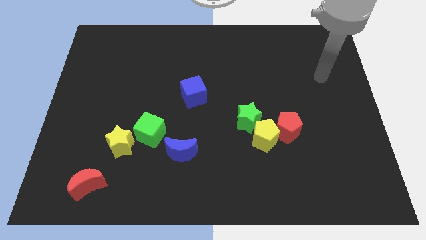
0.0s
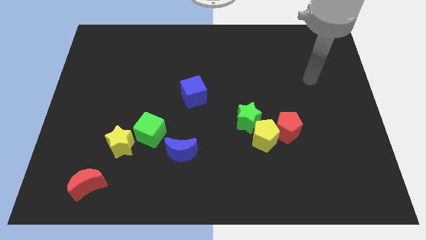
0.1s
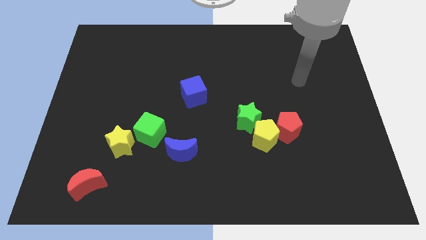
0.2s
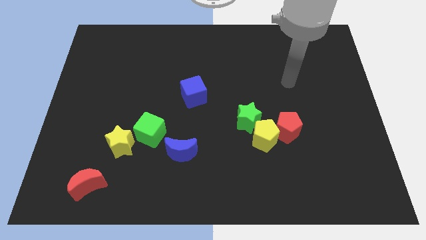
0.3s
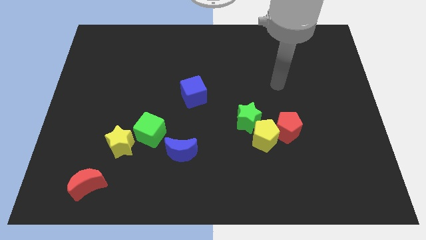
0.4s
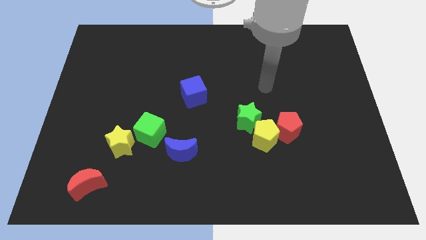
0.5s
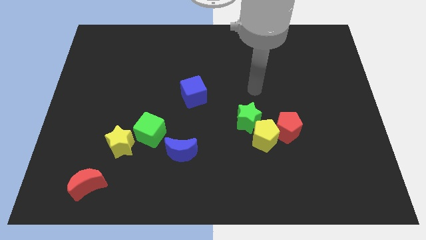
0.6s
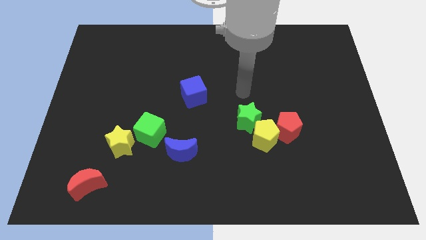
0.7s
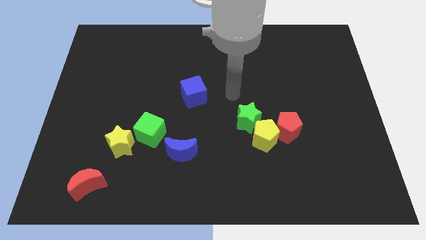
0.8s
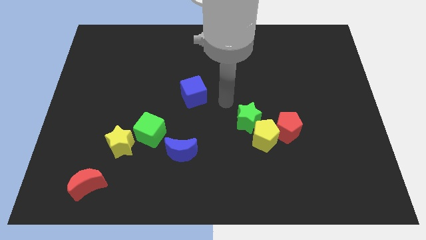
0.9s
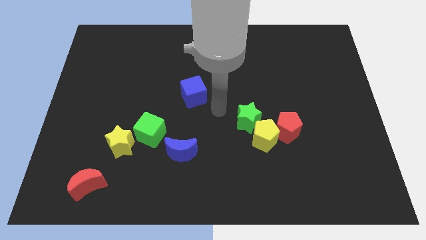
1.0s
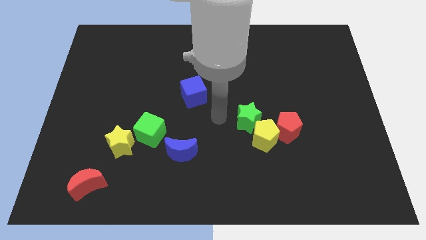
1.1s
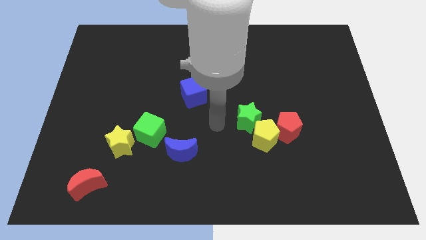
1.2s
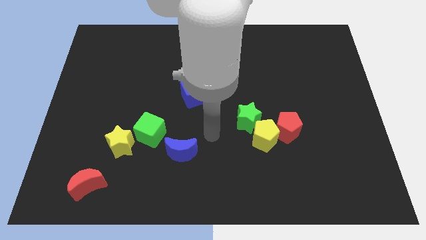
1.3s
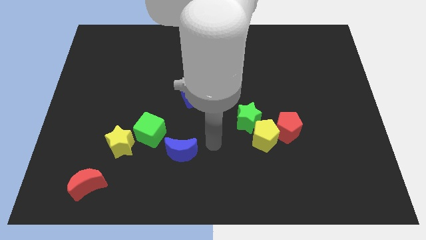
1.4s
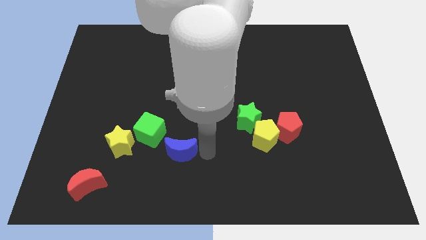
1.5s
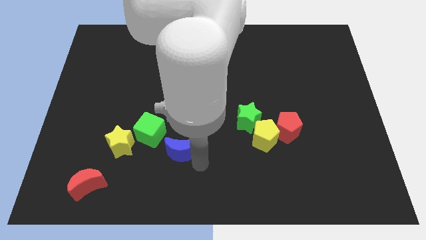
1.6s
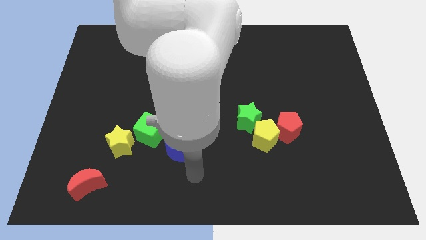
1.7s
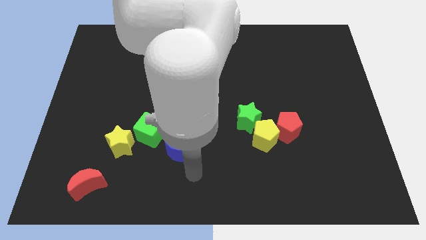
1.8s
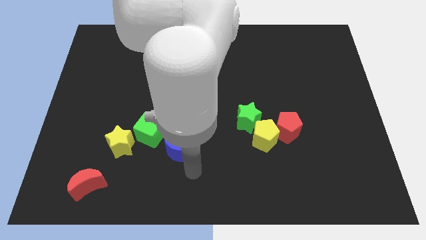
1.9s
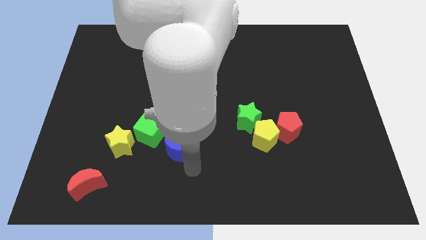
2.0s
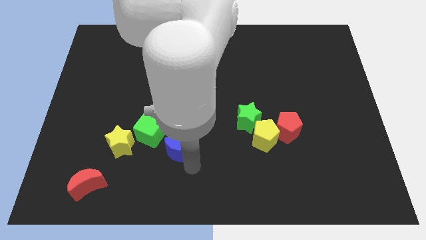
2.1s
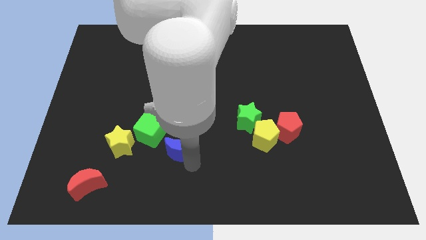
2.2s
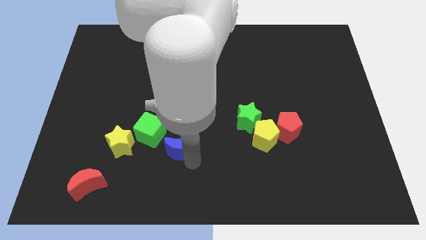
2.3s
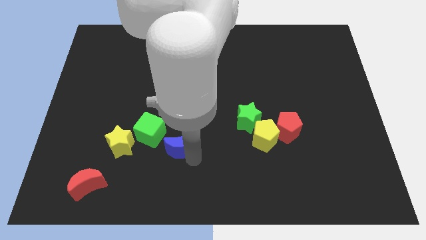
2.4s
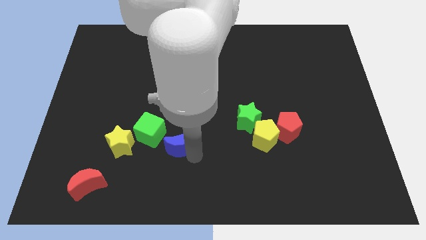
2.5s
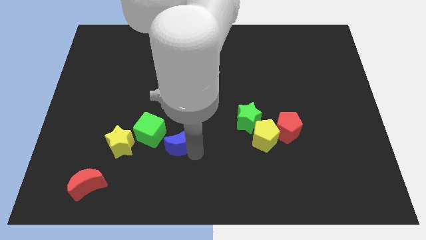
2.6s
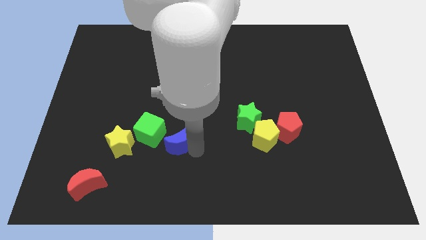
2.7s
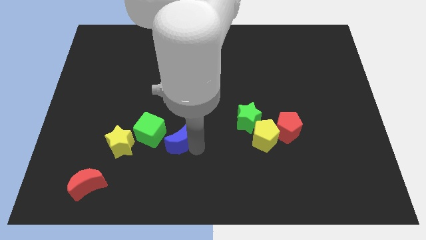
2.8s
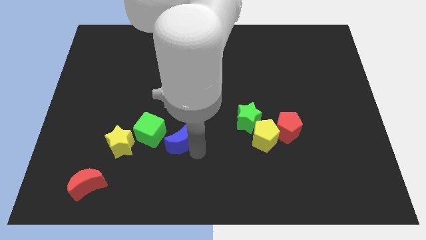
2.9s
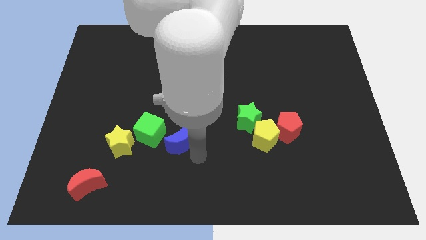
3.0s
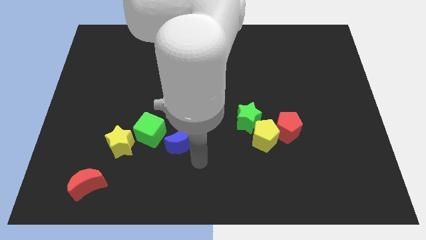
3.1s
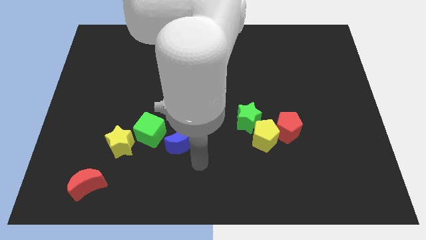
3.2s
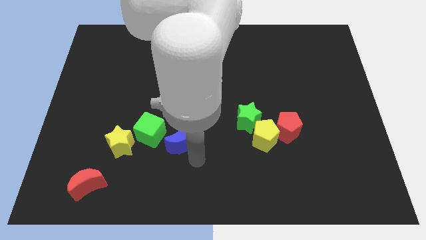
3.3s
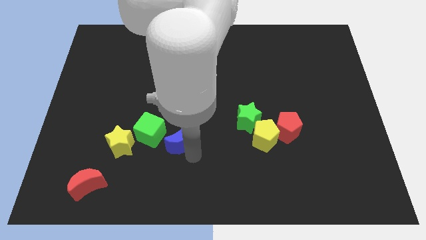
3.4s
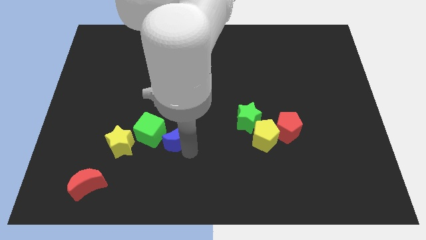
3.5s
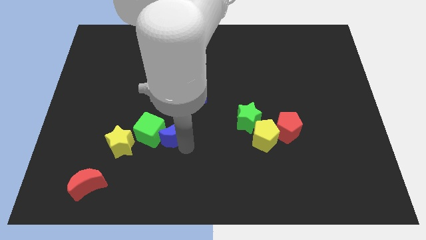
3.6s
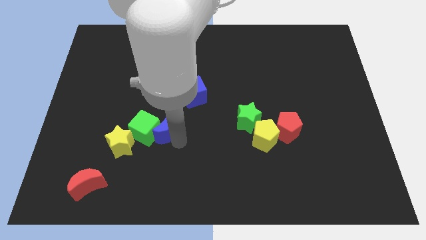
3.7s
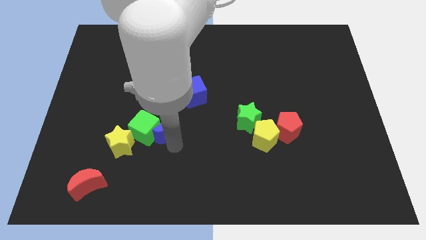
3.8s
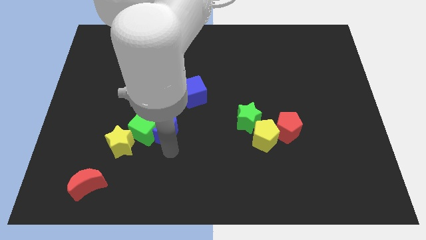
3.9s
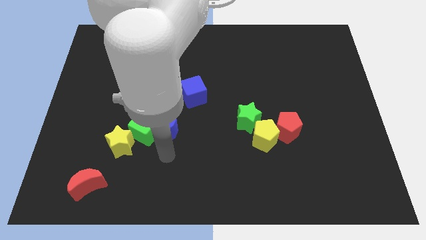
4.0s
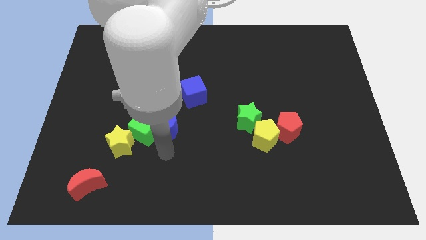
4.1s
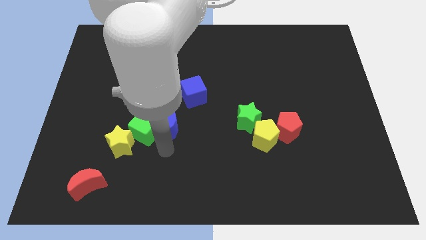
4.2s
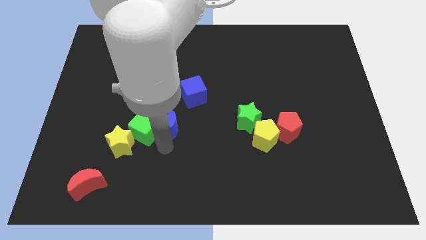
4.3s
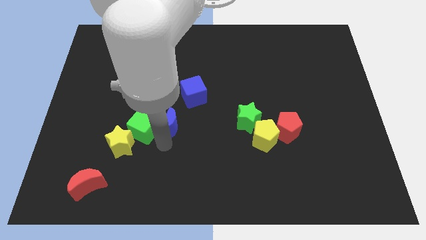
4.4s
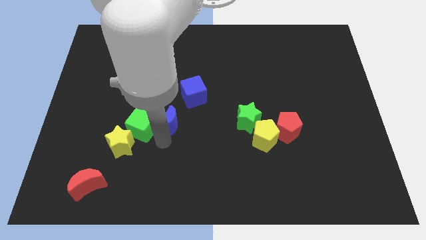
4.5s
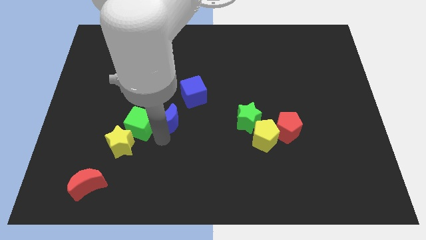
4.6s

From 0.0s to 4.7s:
slightly slide the blue moon upwards

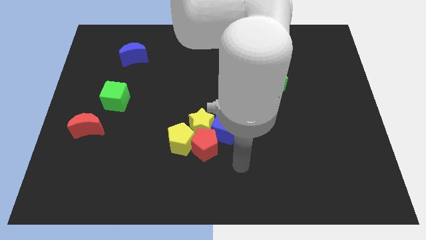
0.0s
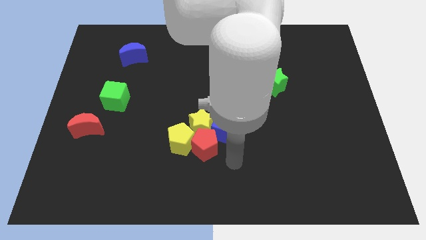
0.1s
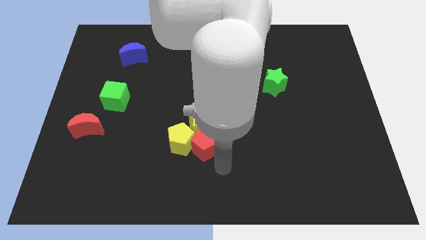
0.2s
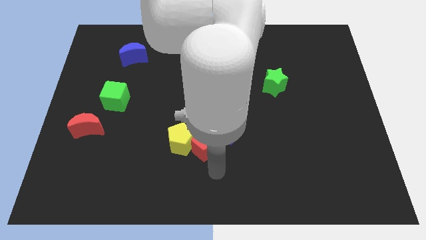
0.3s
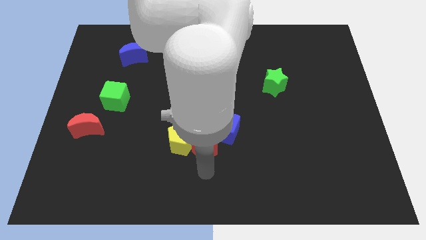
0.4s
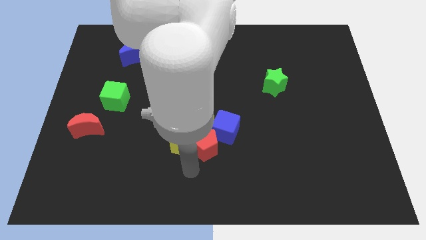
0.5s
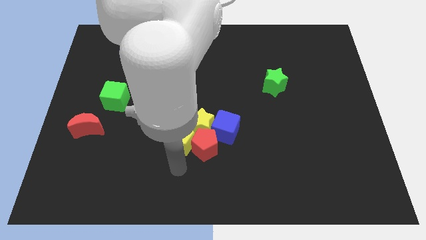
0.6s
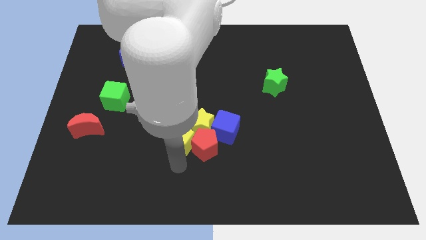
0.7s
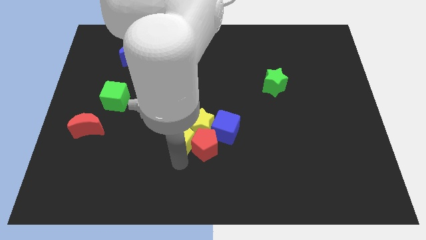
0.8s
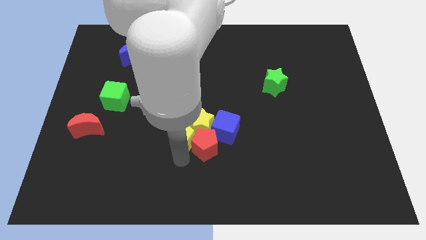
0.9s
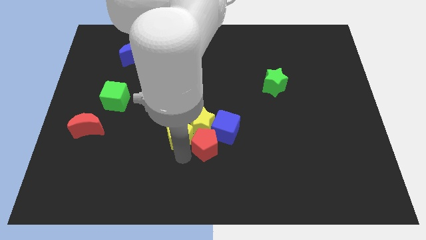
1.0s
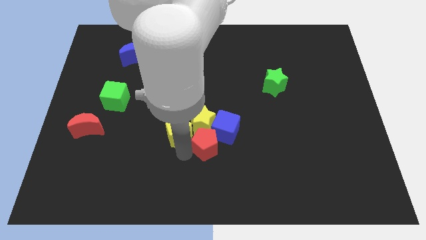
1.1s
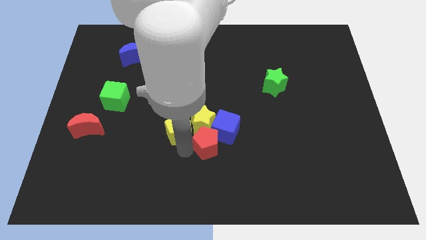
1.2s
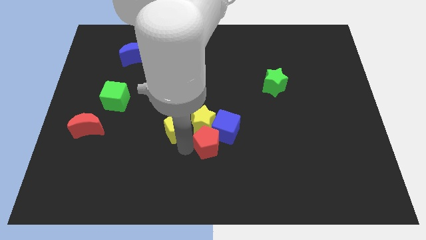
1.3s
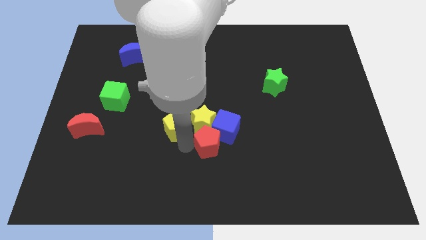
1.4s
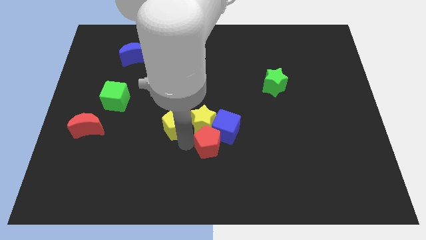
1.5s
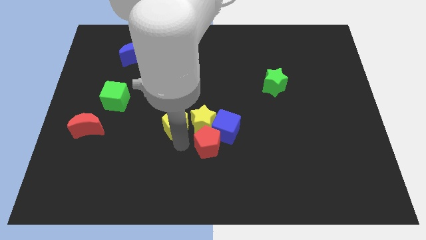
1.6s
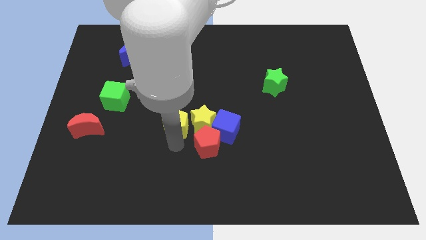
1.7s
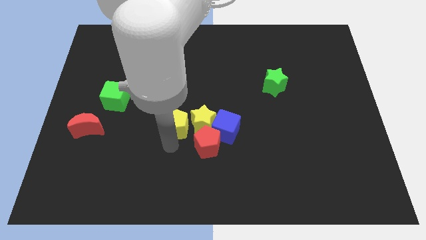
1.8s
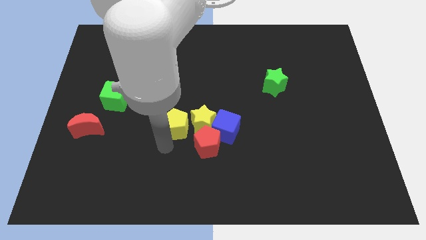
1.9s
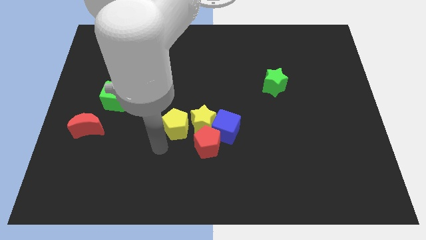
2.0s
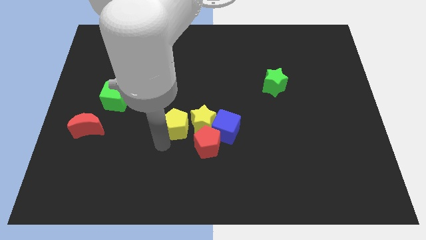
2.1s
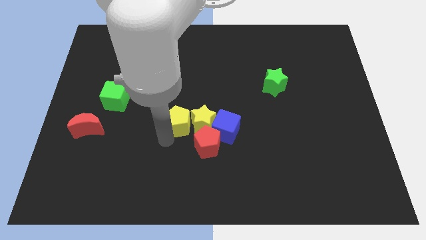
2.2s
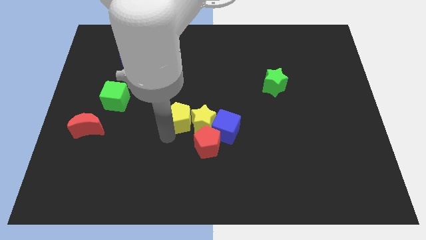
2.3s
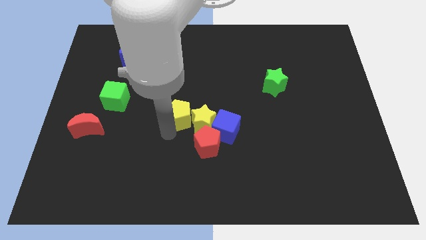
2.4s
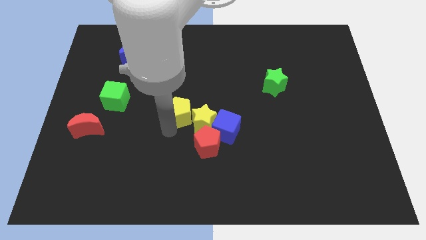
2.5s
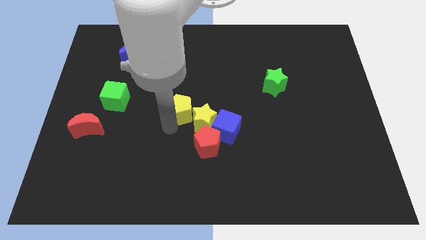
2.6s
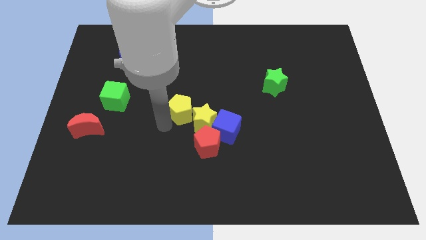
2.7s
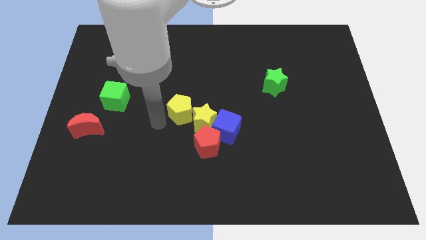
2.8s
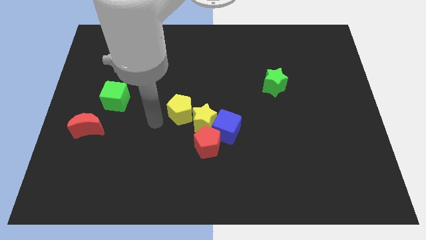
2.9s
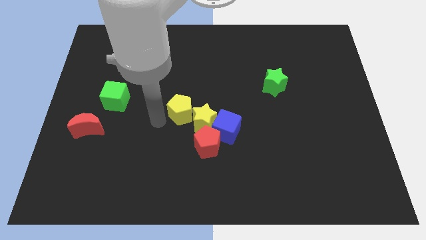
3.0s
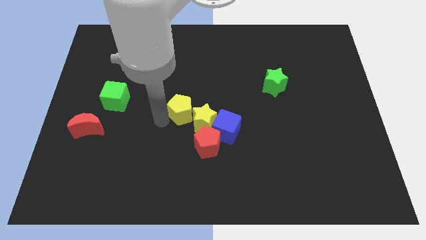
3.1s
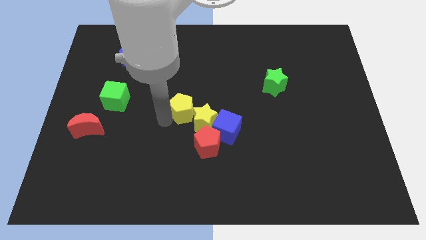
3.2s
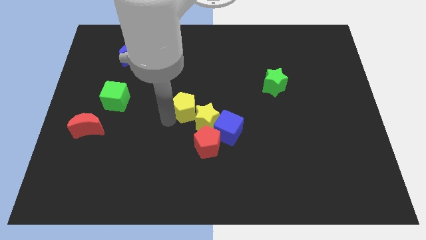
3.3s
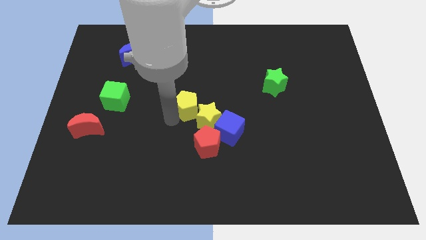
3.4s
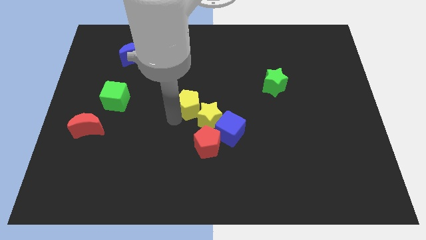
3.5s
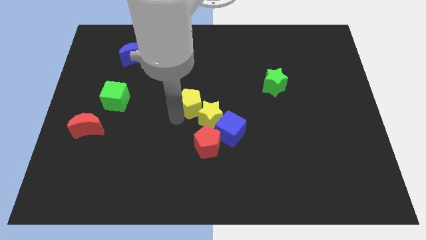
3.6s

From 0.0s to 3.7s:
slide the yellow pentagon upwards and to the right somewhat
